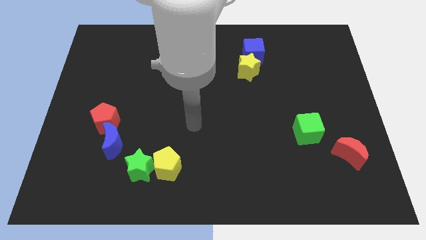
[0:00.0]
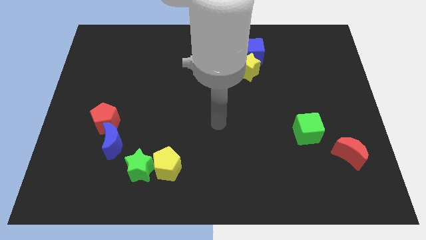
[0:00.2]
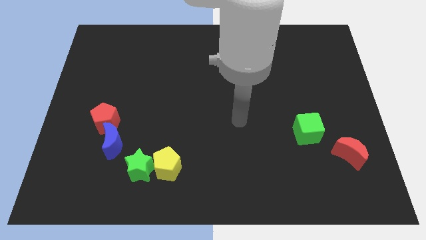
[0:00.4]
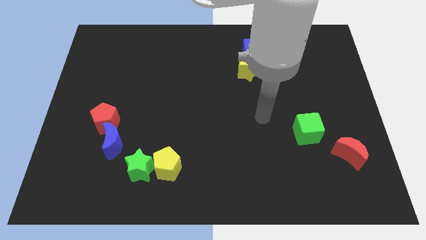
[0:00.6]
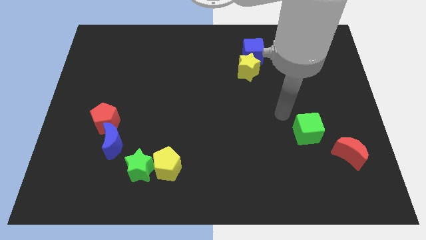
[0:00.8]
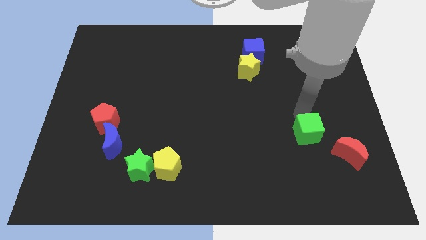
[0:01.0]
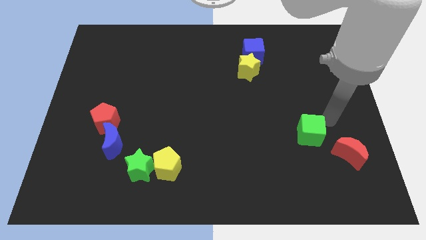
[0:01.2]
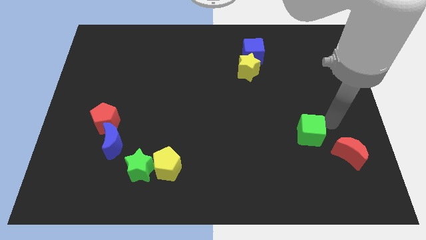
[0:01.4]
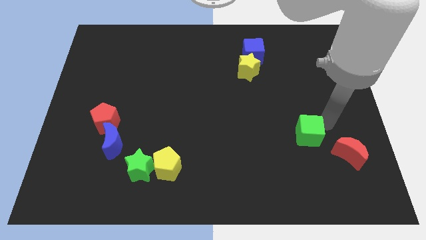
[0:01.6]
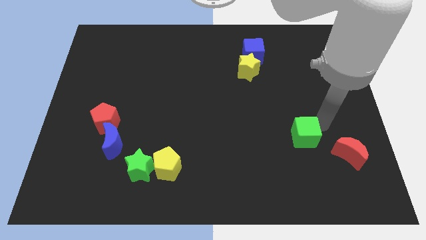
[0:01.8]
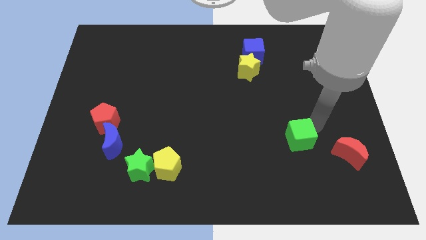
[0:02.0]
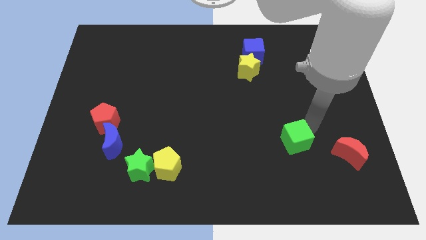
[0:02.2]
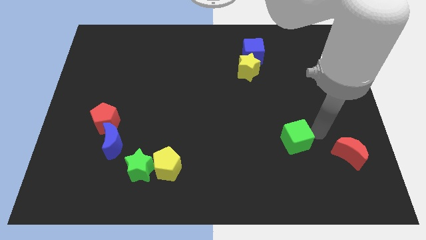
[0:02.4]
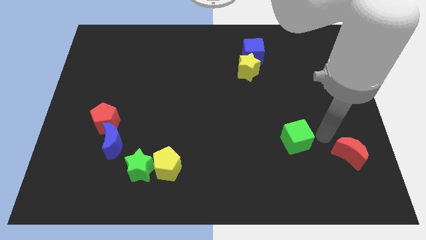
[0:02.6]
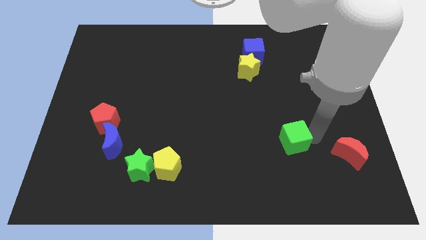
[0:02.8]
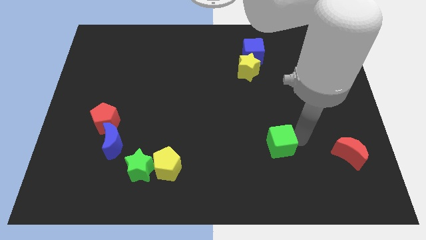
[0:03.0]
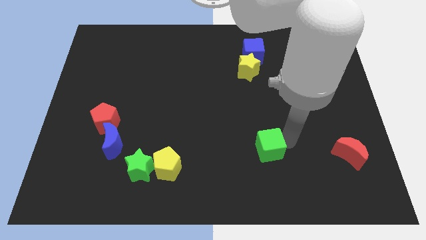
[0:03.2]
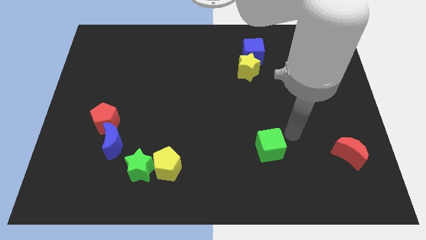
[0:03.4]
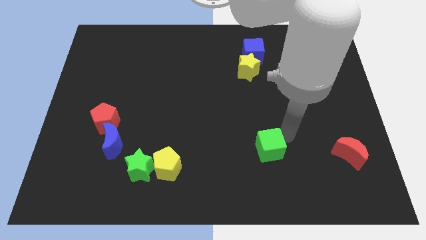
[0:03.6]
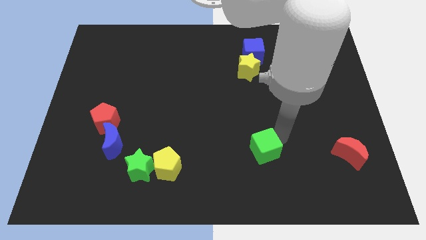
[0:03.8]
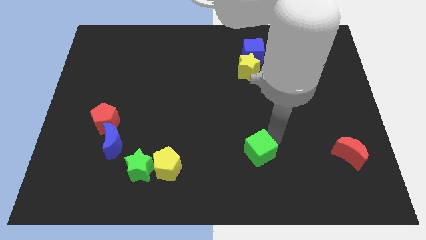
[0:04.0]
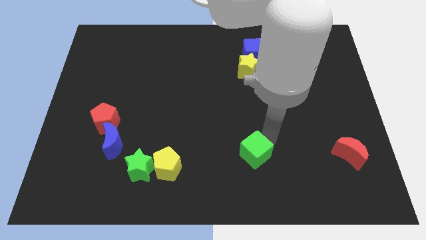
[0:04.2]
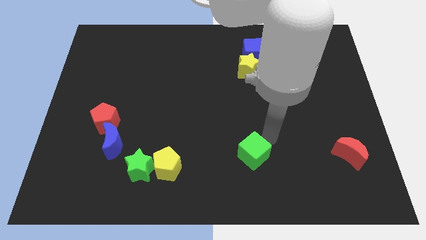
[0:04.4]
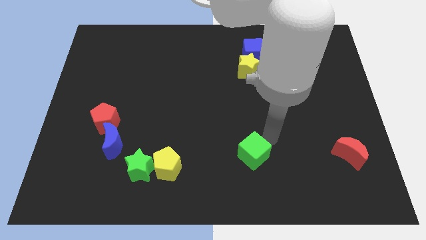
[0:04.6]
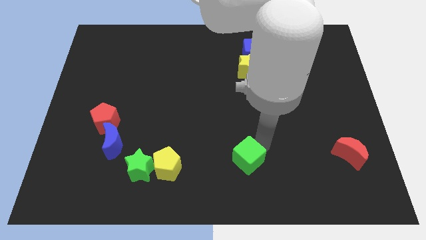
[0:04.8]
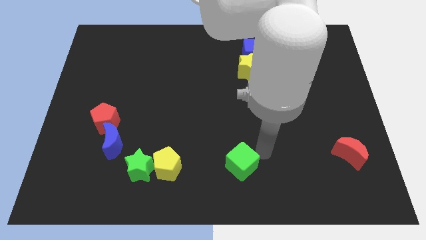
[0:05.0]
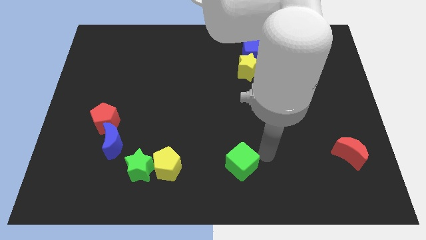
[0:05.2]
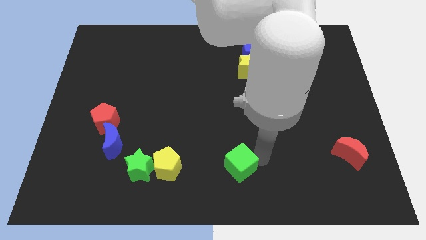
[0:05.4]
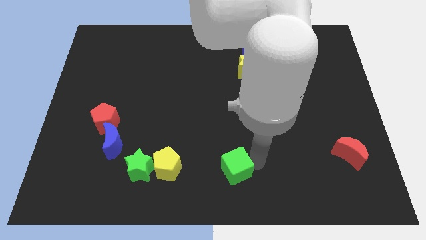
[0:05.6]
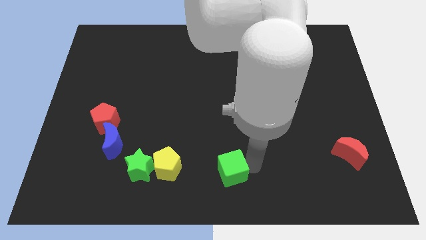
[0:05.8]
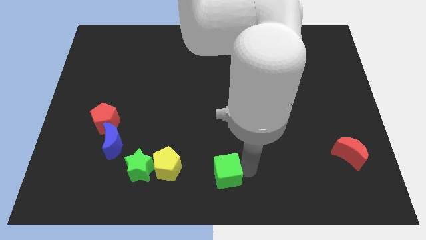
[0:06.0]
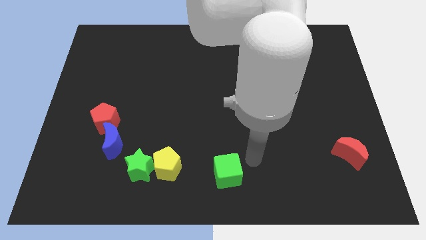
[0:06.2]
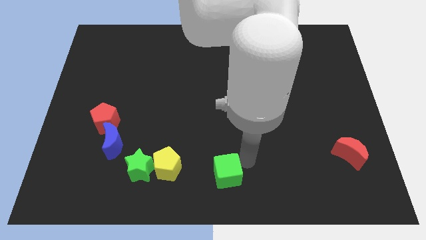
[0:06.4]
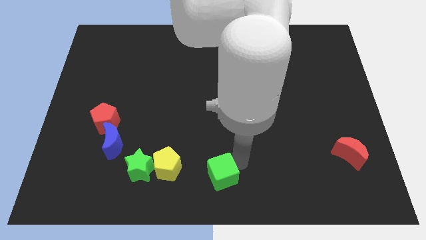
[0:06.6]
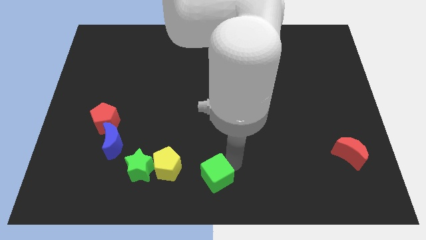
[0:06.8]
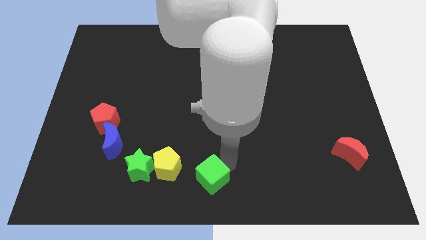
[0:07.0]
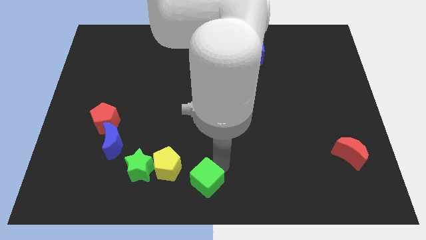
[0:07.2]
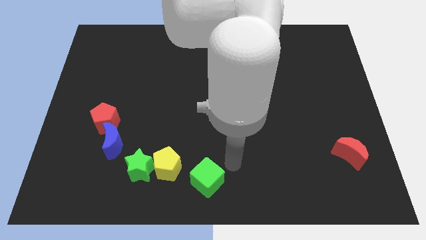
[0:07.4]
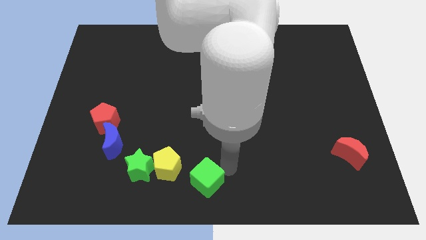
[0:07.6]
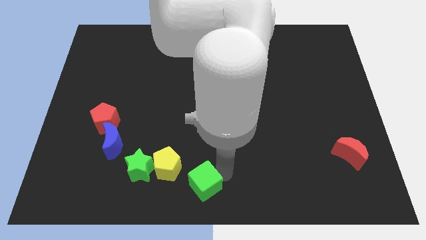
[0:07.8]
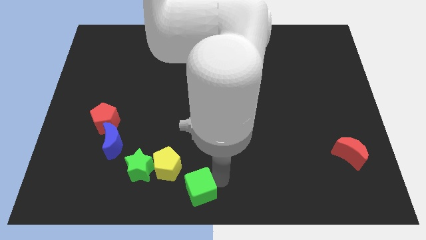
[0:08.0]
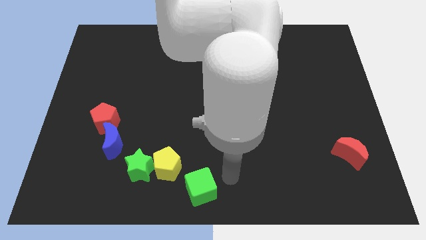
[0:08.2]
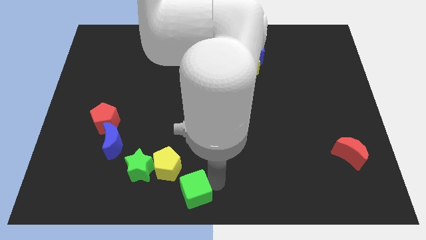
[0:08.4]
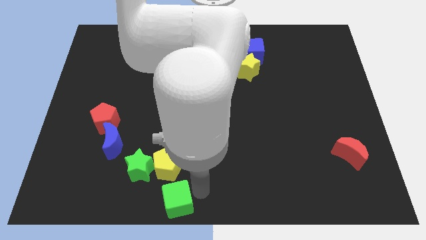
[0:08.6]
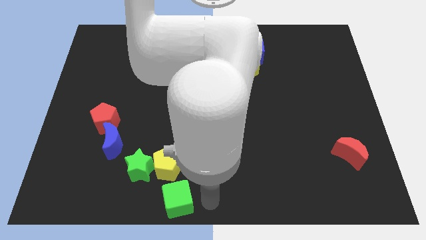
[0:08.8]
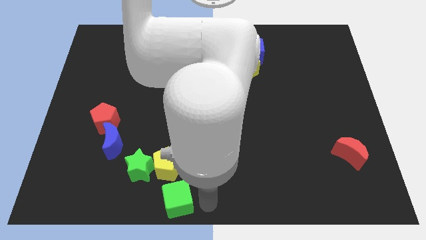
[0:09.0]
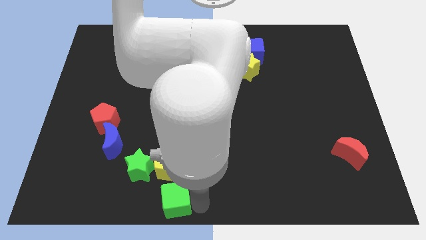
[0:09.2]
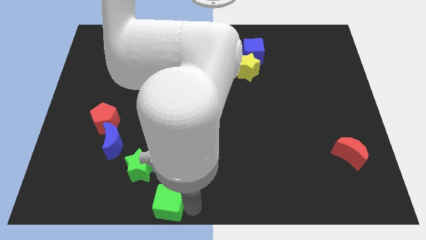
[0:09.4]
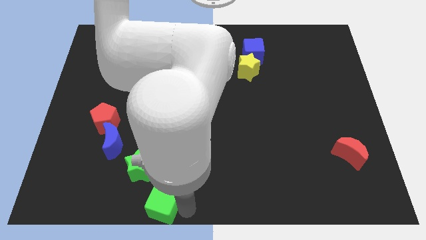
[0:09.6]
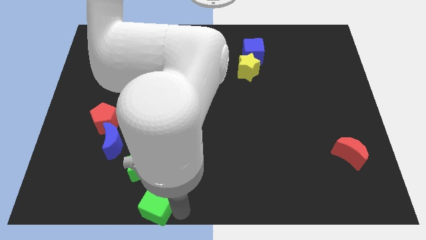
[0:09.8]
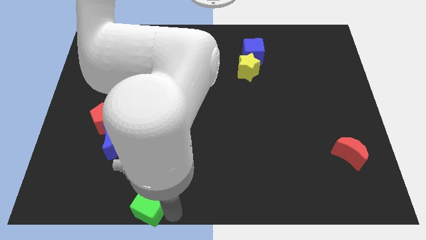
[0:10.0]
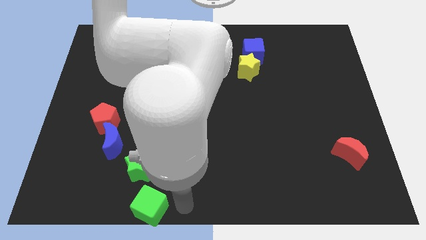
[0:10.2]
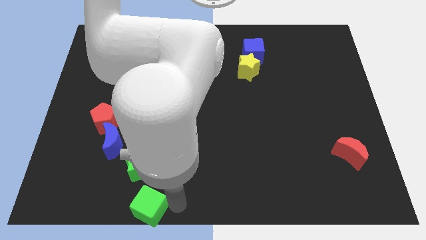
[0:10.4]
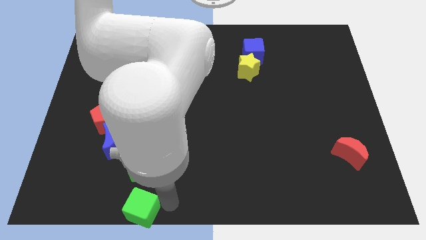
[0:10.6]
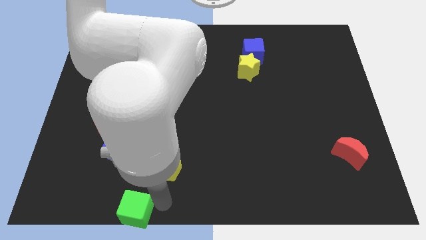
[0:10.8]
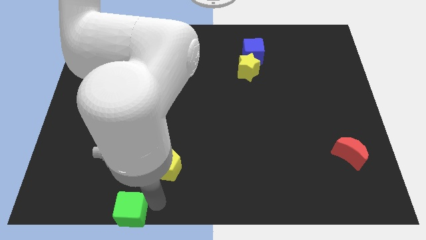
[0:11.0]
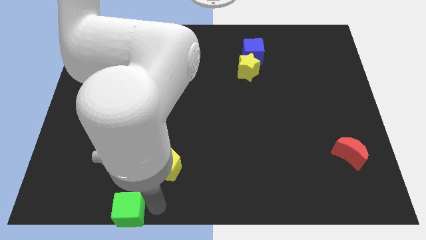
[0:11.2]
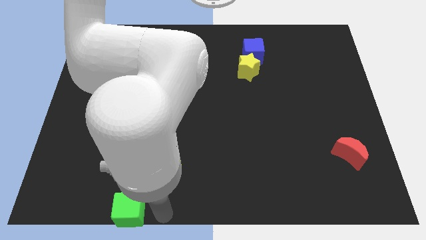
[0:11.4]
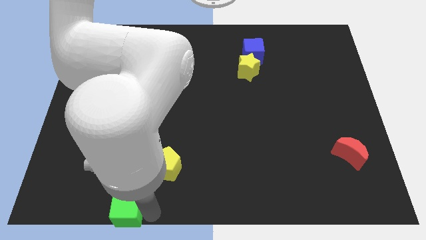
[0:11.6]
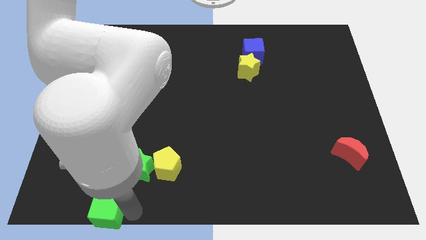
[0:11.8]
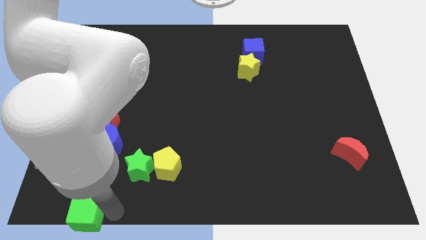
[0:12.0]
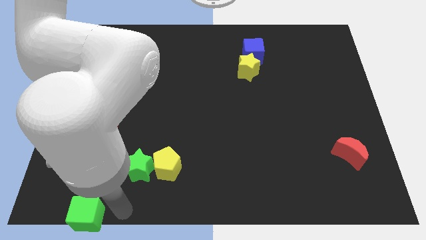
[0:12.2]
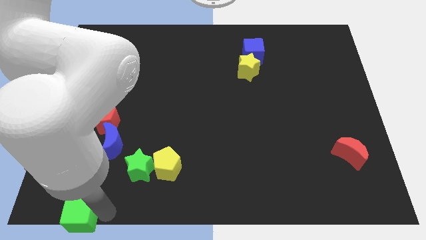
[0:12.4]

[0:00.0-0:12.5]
move the green cube to the bottom left corner

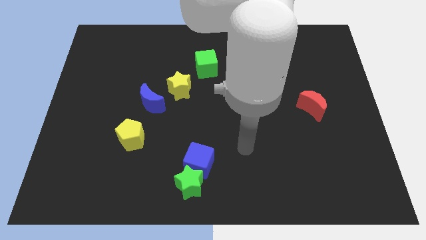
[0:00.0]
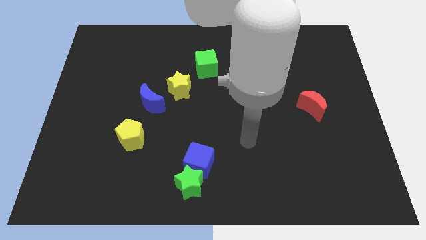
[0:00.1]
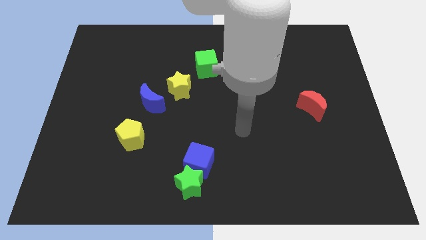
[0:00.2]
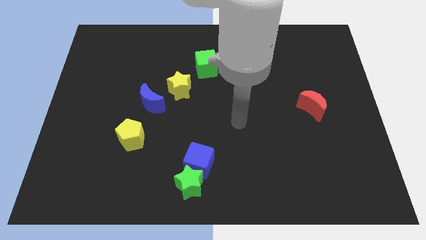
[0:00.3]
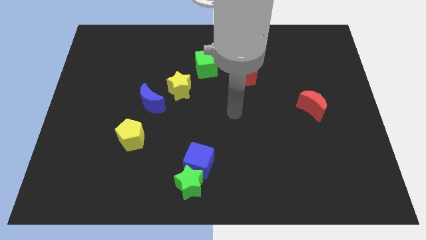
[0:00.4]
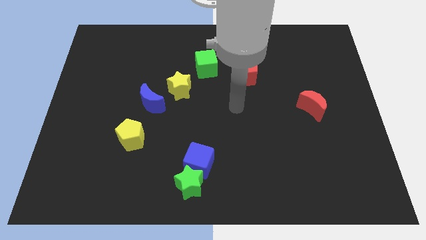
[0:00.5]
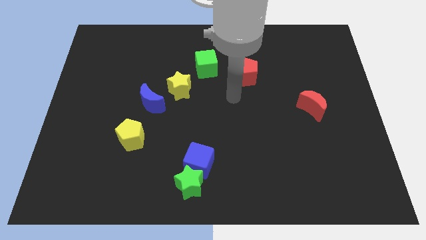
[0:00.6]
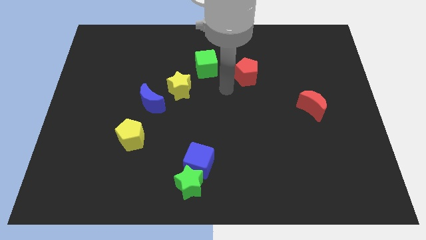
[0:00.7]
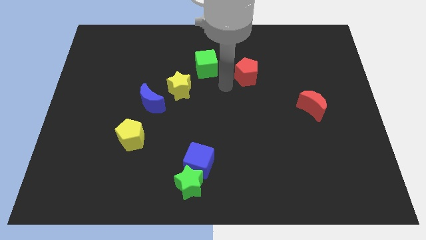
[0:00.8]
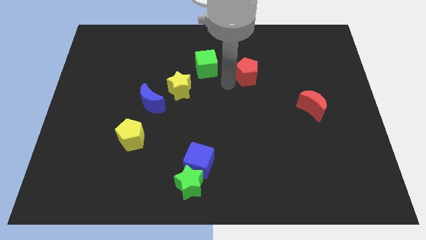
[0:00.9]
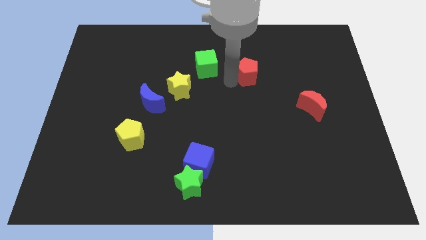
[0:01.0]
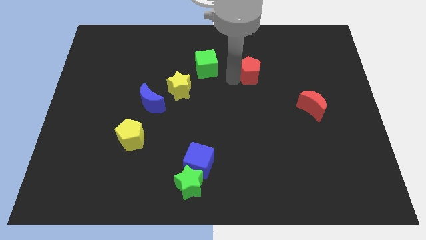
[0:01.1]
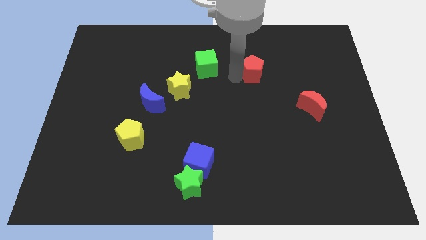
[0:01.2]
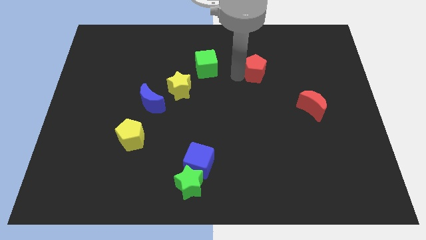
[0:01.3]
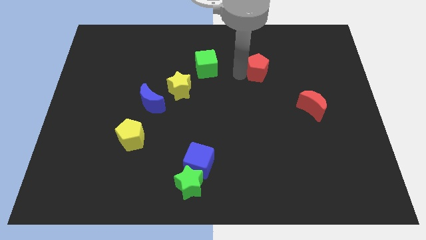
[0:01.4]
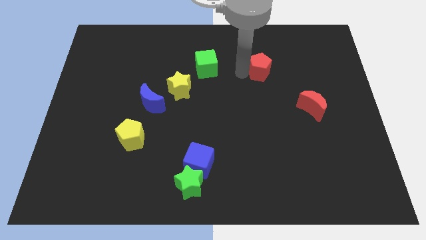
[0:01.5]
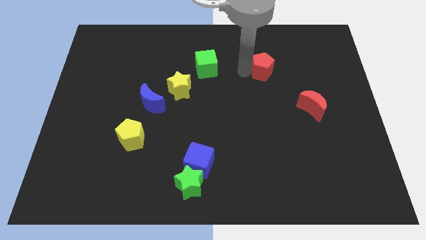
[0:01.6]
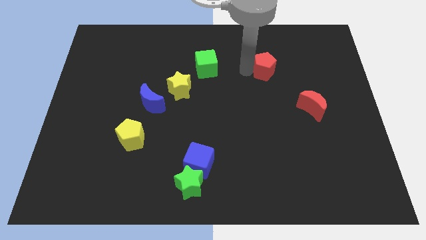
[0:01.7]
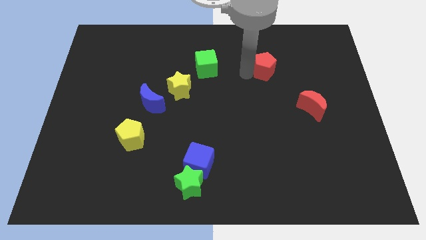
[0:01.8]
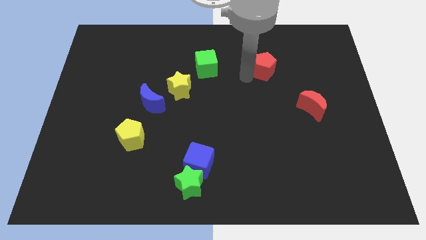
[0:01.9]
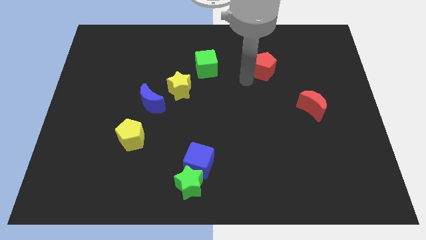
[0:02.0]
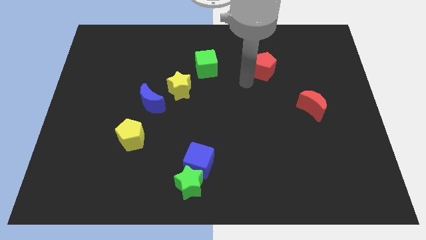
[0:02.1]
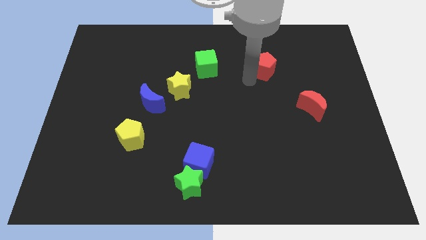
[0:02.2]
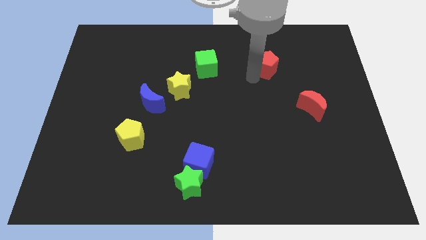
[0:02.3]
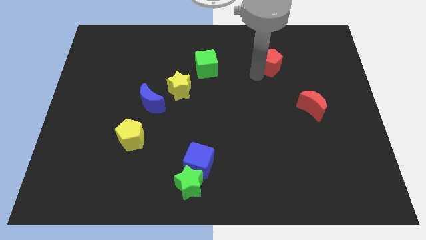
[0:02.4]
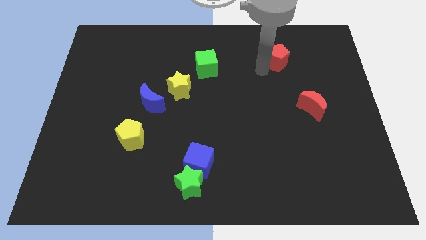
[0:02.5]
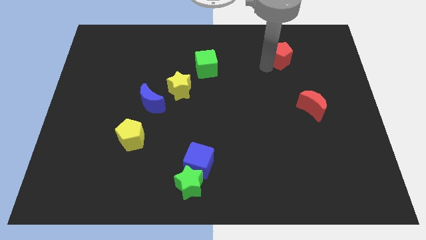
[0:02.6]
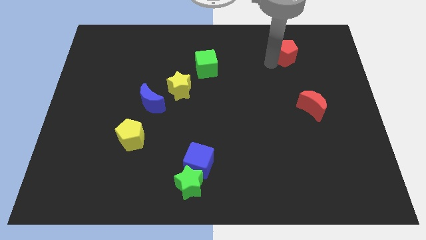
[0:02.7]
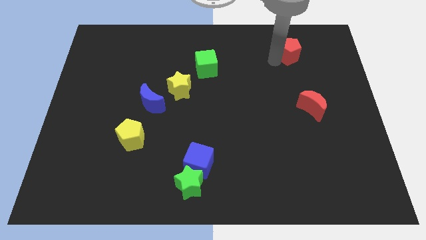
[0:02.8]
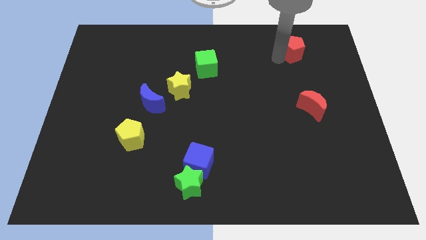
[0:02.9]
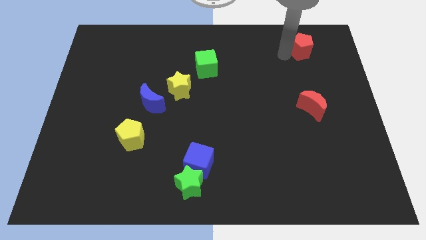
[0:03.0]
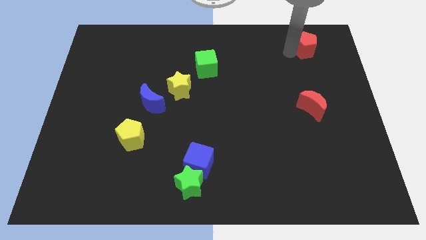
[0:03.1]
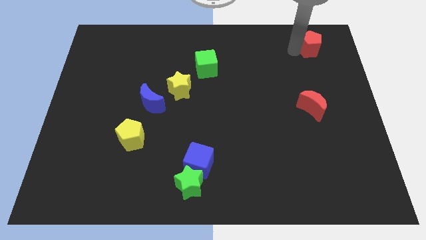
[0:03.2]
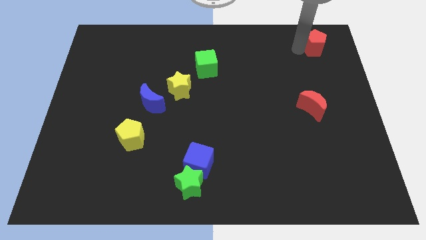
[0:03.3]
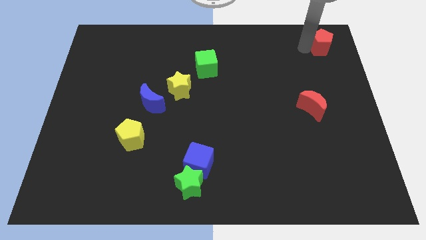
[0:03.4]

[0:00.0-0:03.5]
move the red pentagon to the top right
